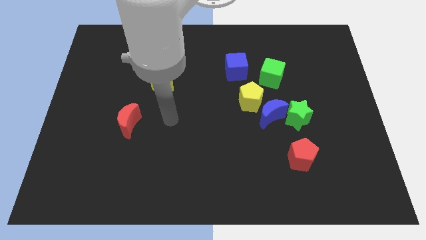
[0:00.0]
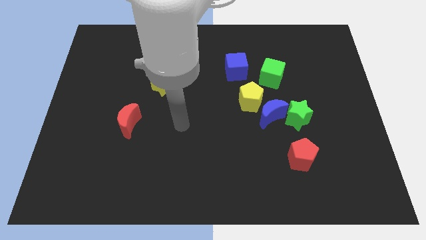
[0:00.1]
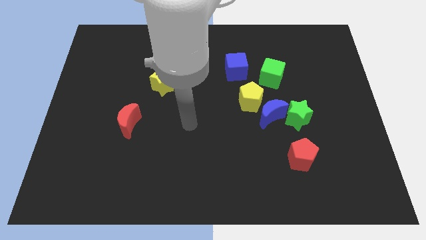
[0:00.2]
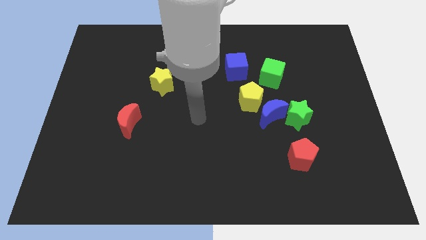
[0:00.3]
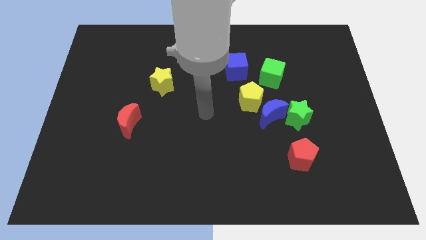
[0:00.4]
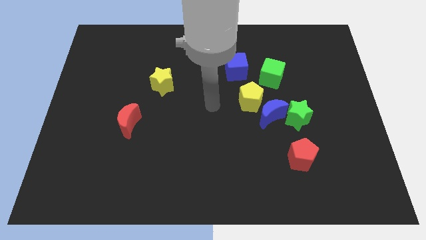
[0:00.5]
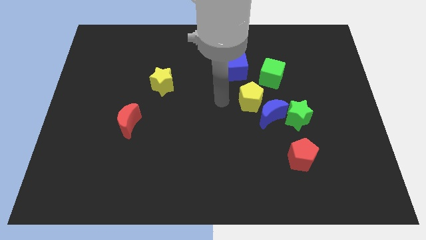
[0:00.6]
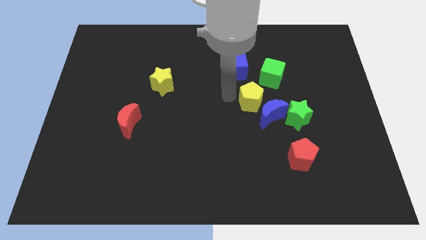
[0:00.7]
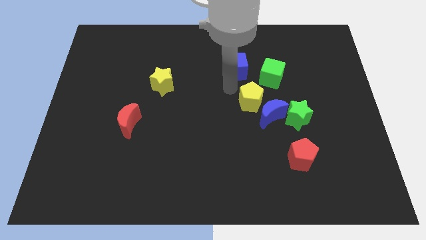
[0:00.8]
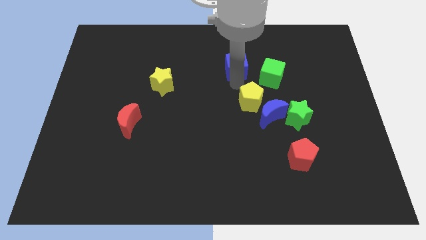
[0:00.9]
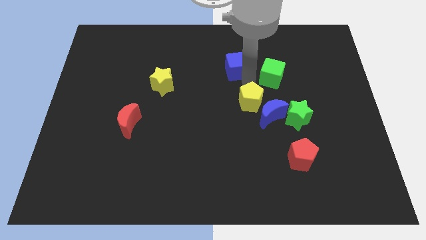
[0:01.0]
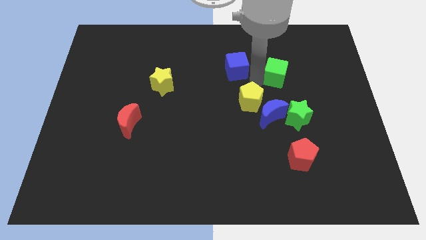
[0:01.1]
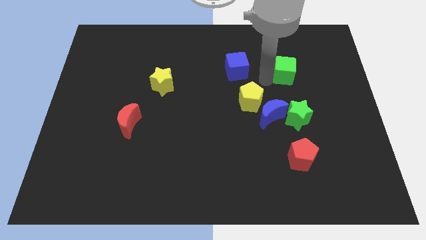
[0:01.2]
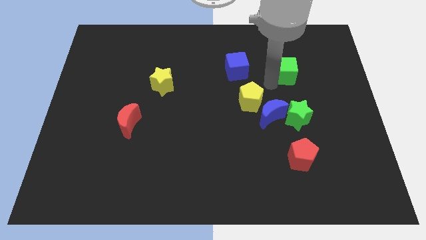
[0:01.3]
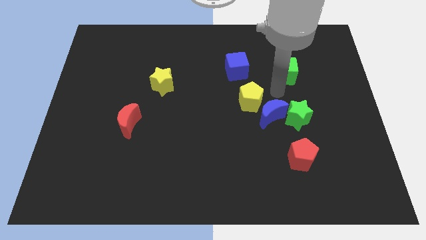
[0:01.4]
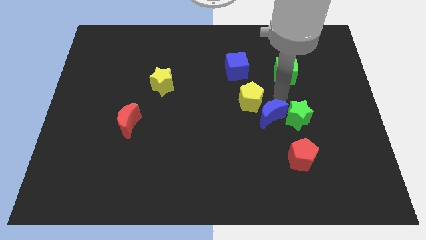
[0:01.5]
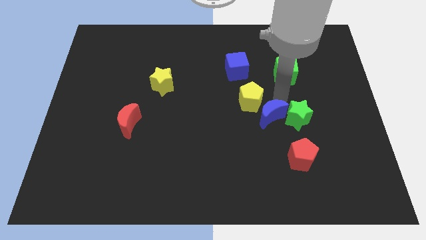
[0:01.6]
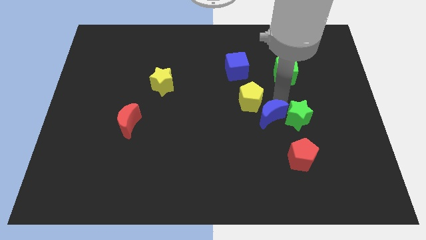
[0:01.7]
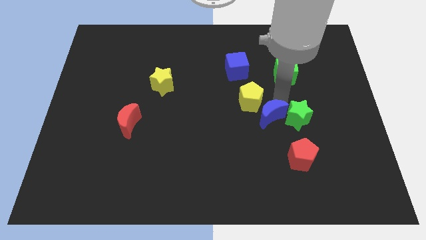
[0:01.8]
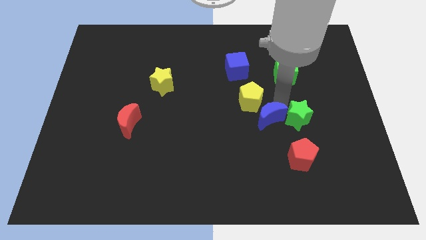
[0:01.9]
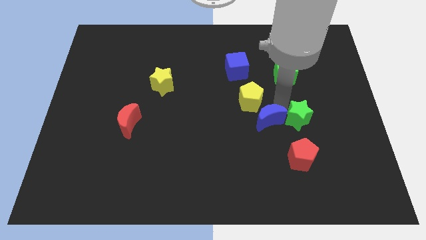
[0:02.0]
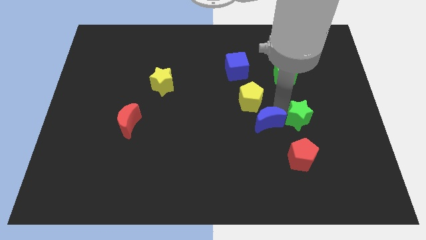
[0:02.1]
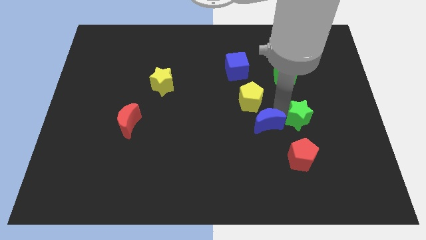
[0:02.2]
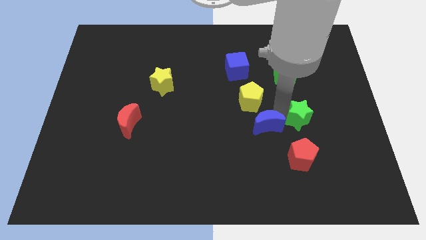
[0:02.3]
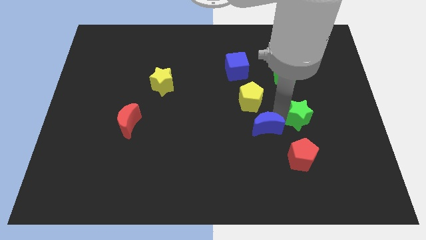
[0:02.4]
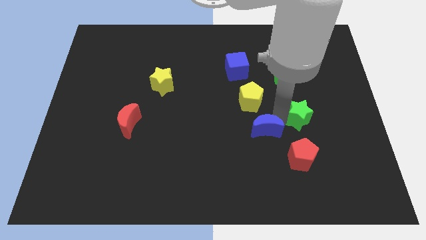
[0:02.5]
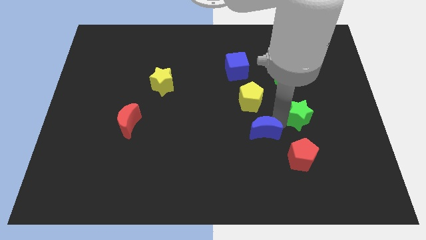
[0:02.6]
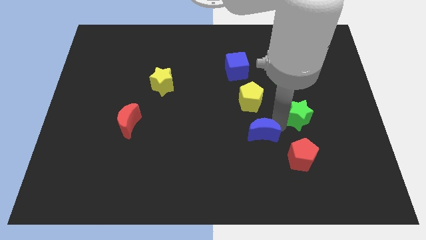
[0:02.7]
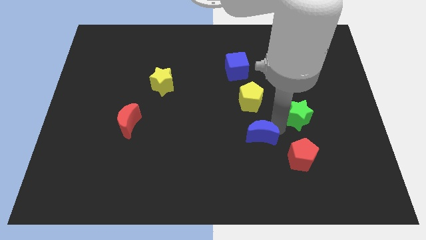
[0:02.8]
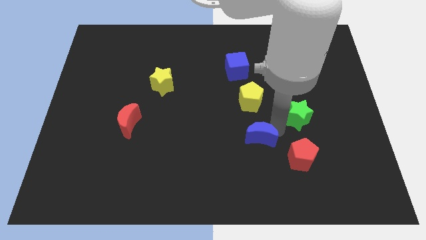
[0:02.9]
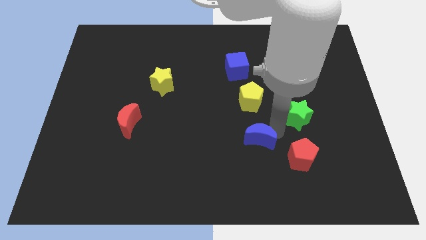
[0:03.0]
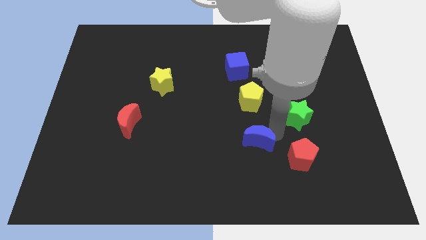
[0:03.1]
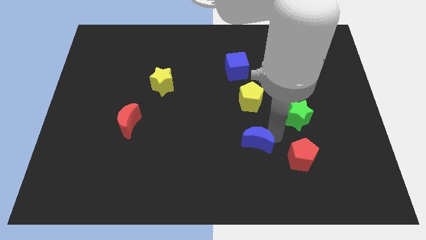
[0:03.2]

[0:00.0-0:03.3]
separate the blue moon from the green star and yellow pentagon

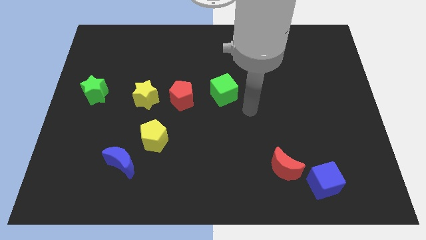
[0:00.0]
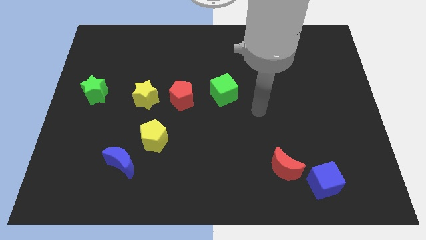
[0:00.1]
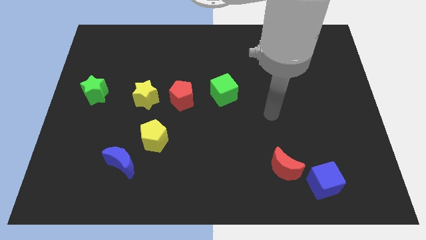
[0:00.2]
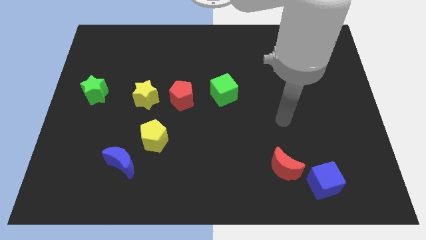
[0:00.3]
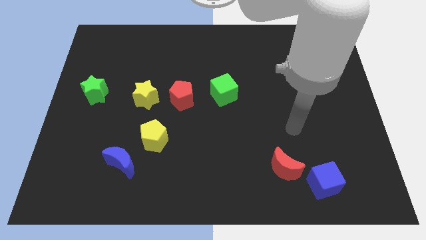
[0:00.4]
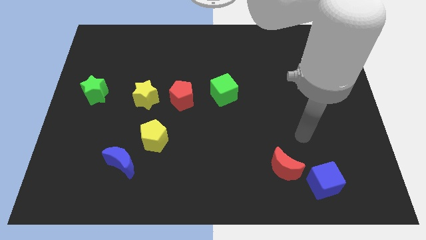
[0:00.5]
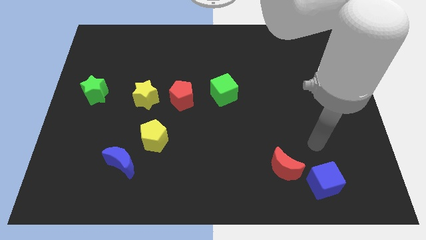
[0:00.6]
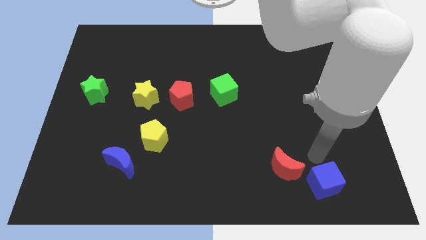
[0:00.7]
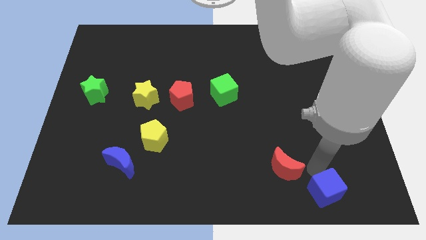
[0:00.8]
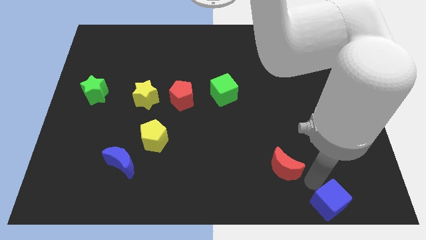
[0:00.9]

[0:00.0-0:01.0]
separate the red moon from the blue cube

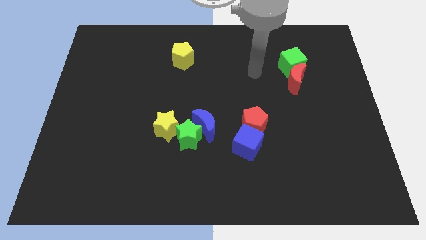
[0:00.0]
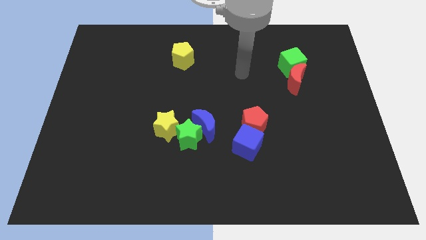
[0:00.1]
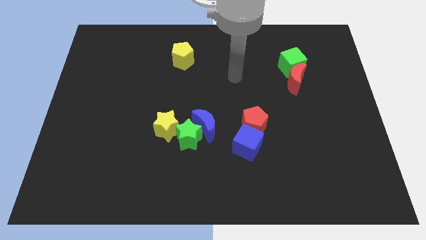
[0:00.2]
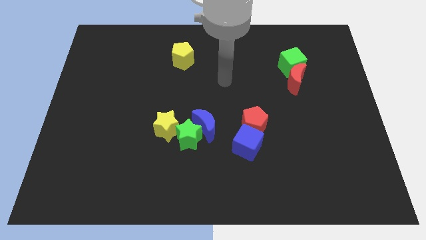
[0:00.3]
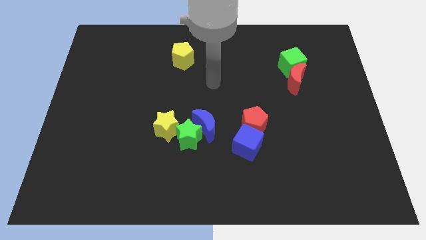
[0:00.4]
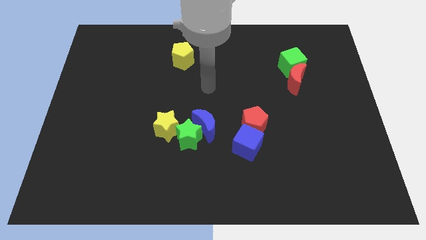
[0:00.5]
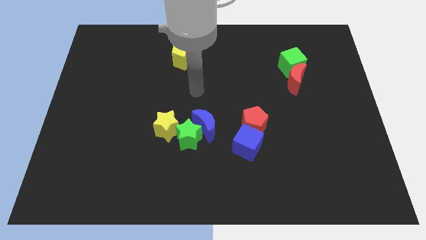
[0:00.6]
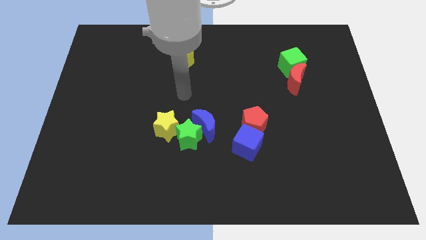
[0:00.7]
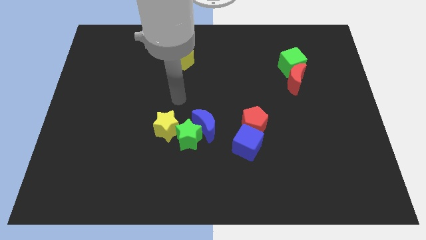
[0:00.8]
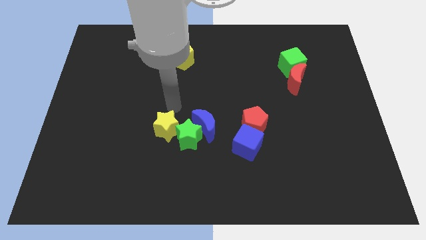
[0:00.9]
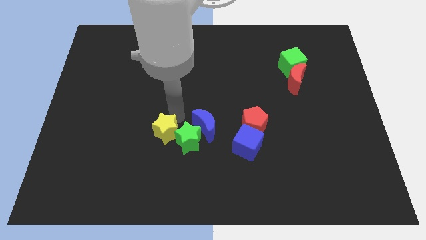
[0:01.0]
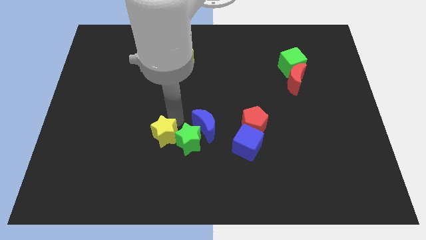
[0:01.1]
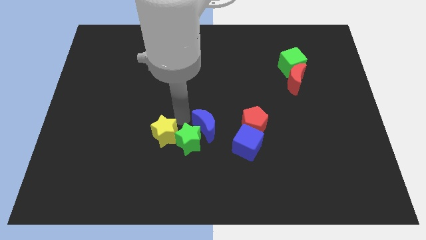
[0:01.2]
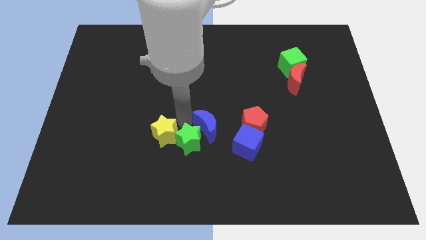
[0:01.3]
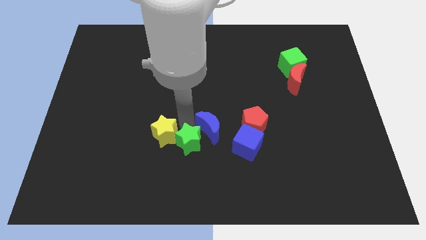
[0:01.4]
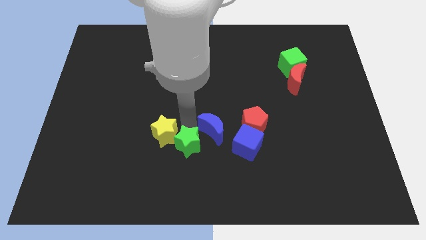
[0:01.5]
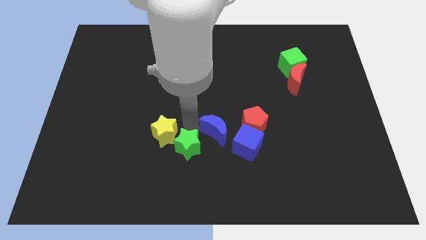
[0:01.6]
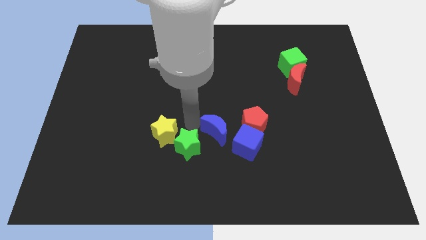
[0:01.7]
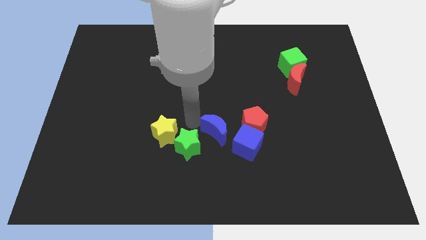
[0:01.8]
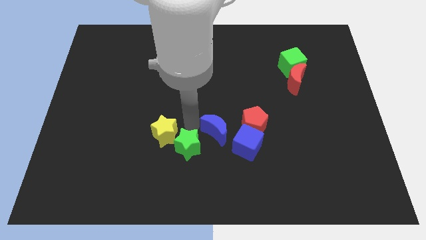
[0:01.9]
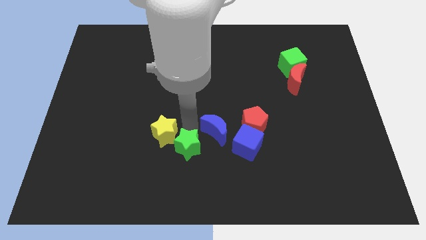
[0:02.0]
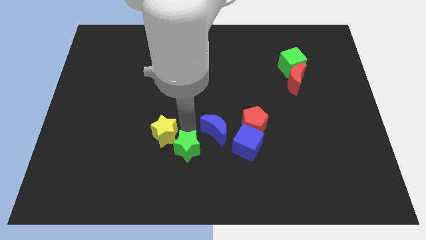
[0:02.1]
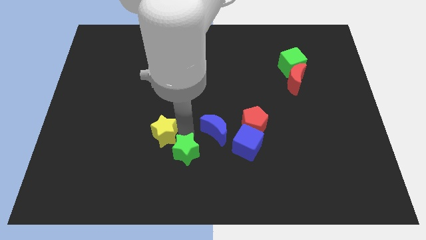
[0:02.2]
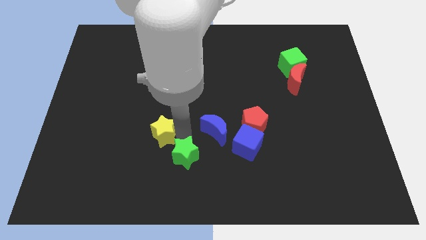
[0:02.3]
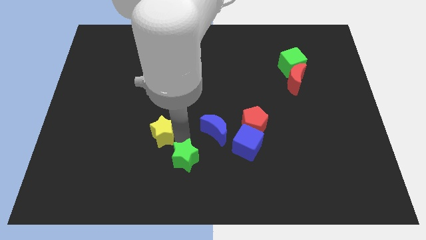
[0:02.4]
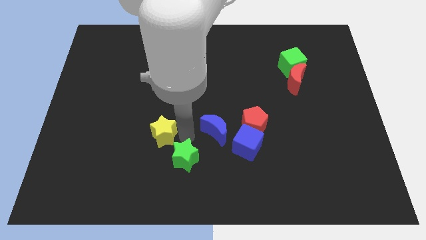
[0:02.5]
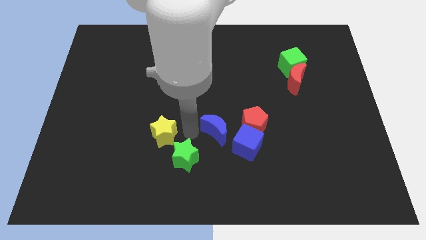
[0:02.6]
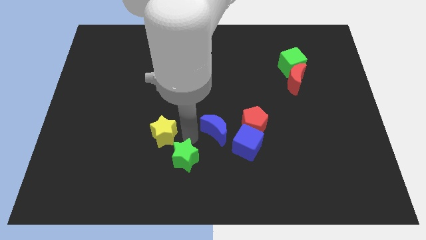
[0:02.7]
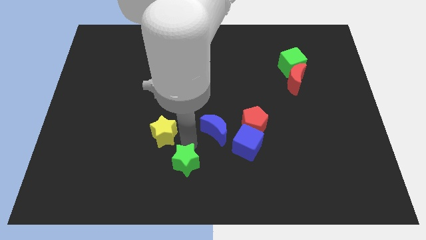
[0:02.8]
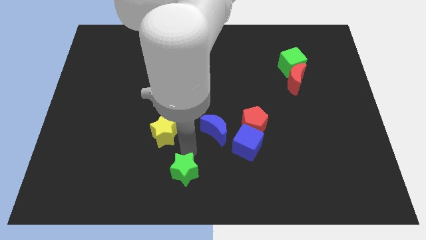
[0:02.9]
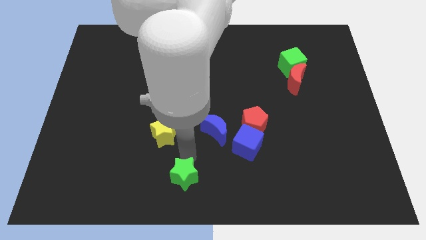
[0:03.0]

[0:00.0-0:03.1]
pull the green star apart from the blue moon and yellow star

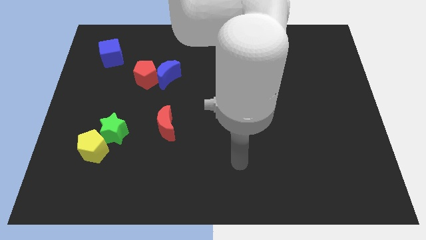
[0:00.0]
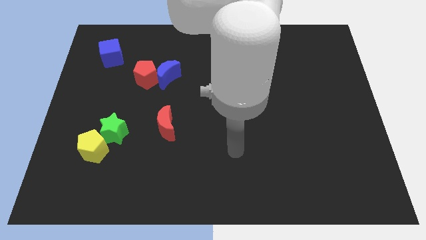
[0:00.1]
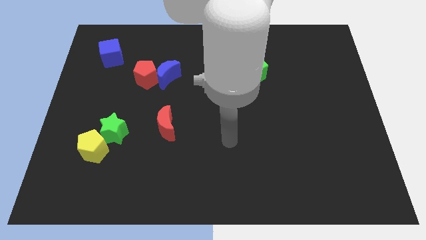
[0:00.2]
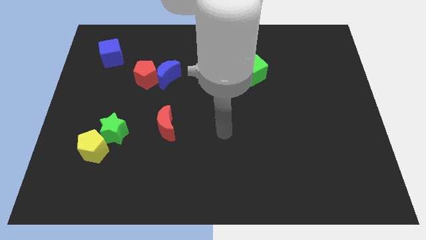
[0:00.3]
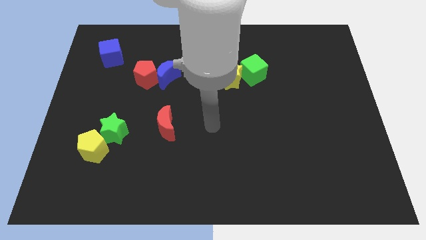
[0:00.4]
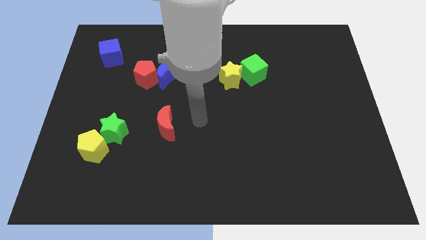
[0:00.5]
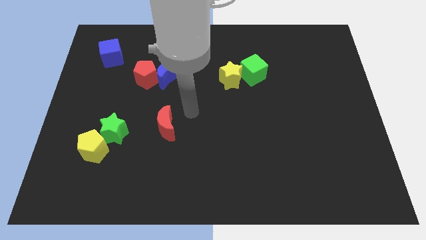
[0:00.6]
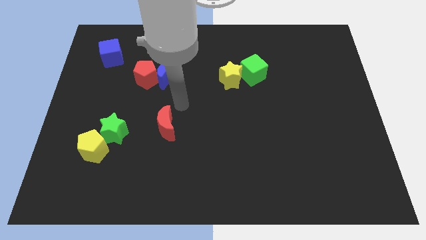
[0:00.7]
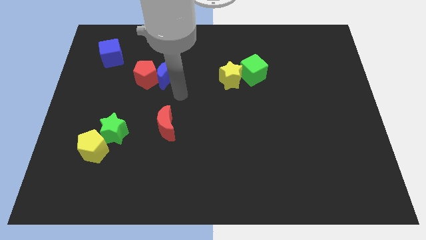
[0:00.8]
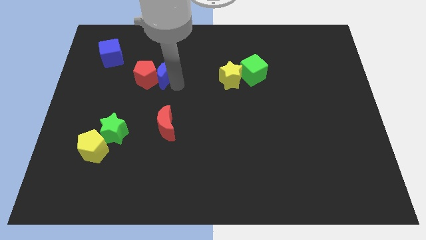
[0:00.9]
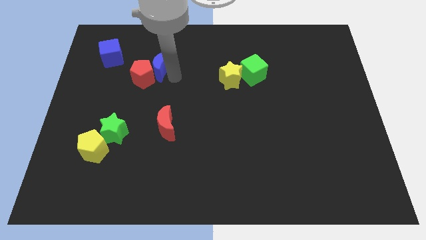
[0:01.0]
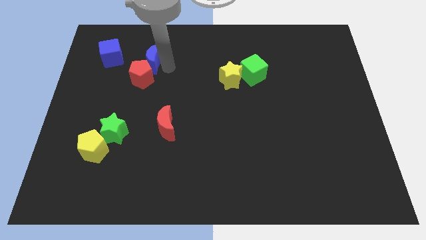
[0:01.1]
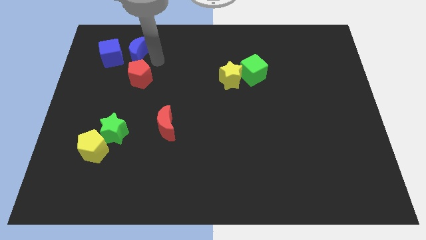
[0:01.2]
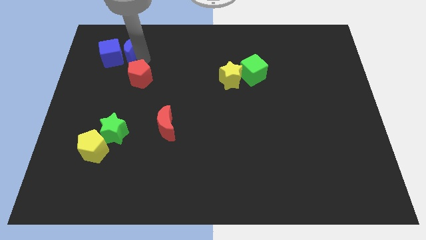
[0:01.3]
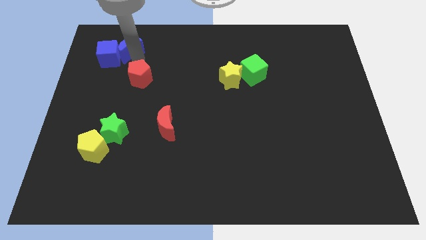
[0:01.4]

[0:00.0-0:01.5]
move the red pentagon away from the blue moon

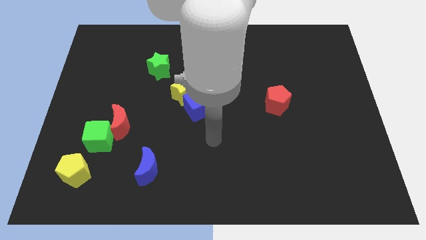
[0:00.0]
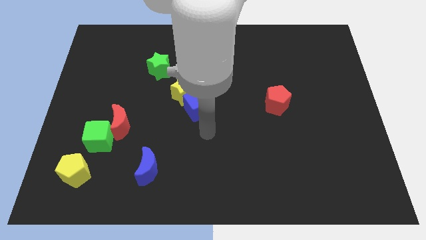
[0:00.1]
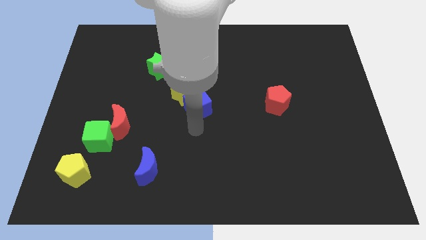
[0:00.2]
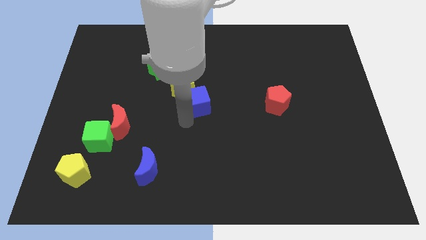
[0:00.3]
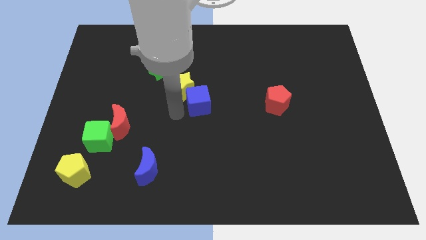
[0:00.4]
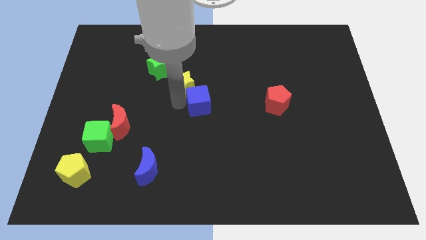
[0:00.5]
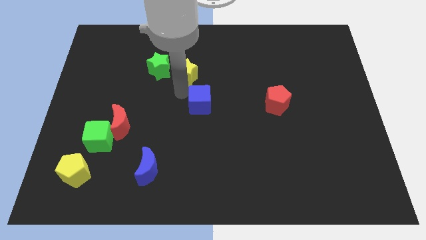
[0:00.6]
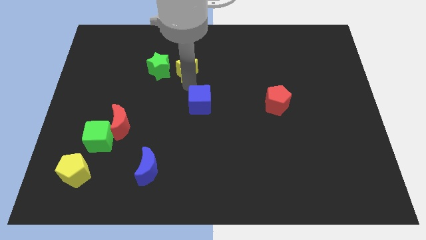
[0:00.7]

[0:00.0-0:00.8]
move the blue cube away from the yellow star
